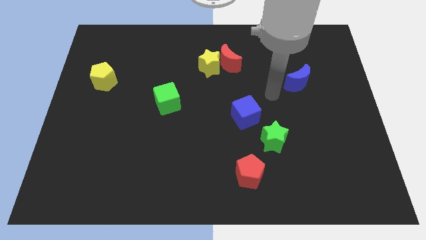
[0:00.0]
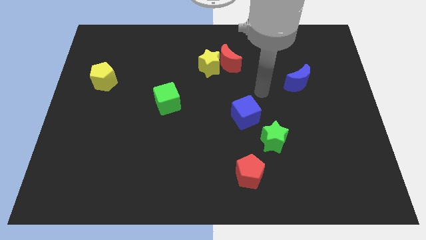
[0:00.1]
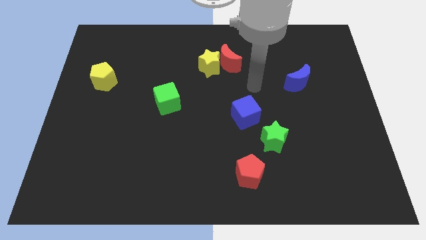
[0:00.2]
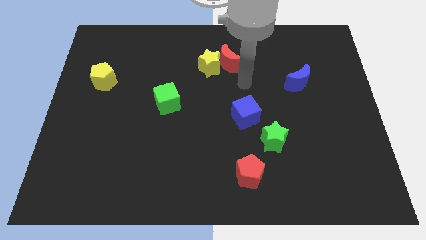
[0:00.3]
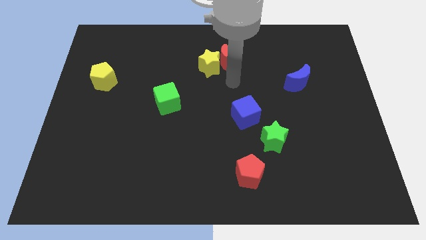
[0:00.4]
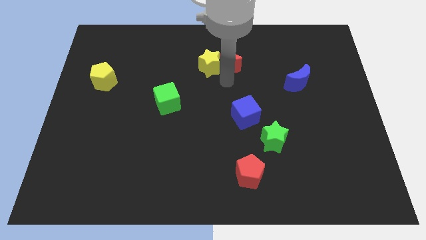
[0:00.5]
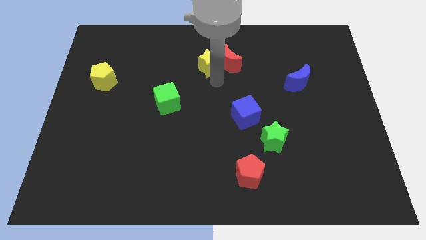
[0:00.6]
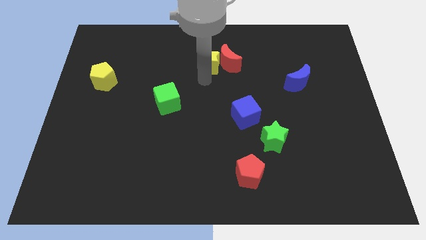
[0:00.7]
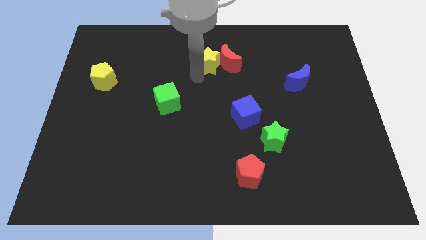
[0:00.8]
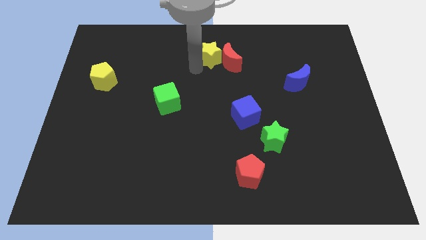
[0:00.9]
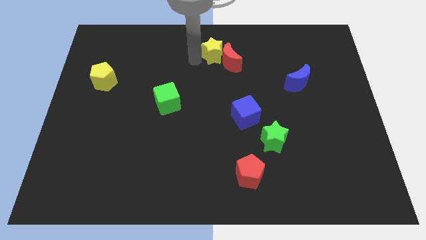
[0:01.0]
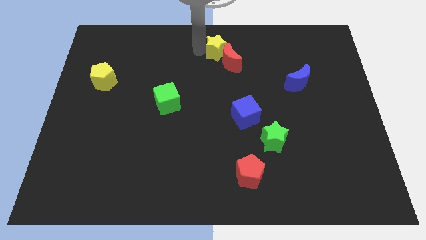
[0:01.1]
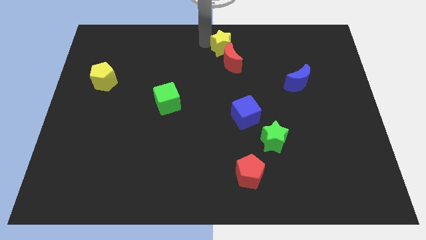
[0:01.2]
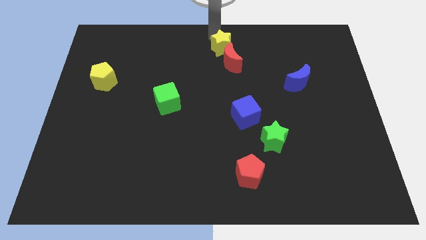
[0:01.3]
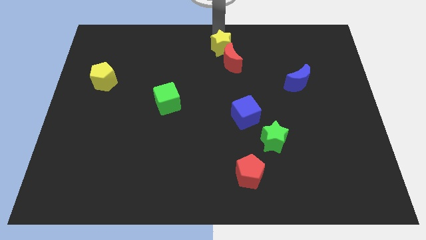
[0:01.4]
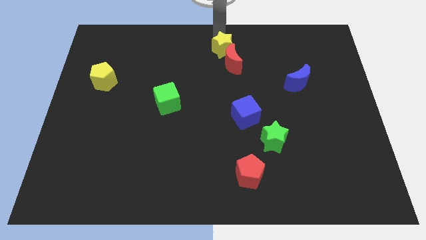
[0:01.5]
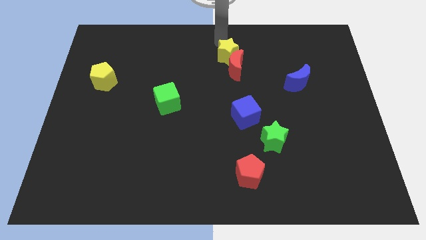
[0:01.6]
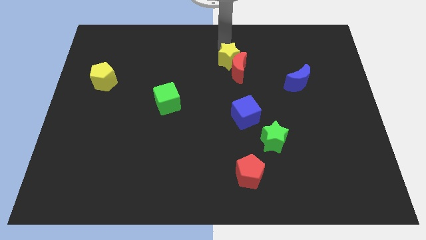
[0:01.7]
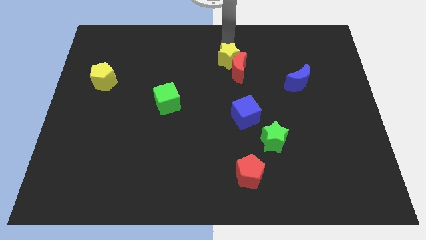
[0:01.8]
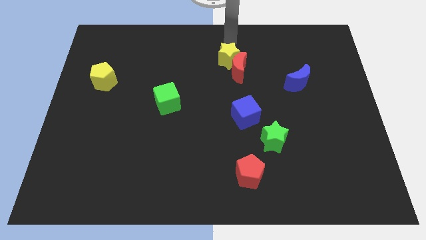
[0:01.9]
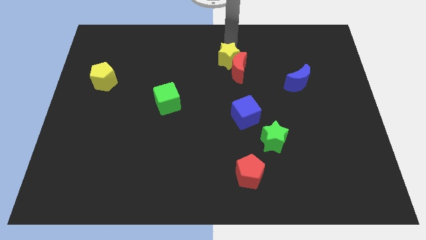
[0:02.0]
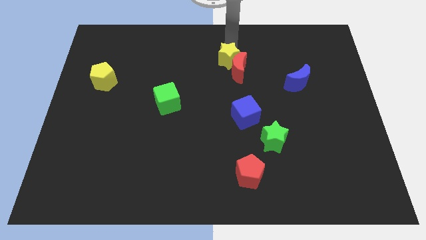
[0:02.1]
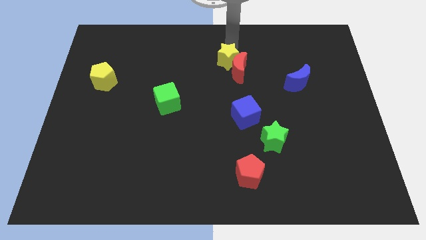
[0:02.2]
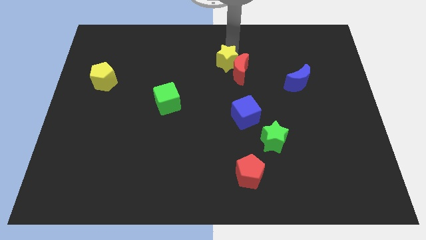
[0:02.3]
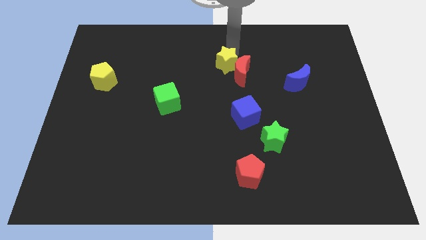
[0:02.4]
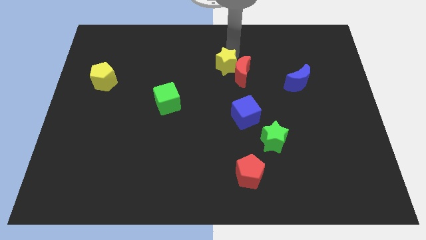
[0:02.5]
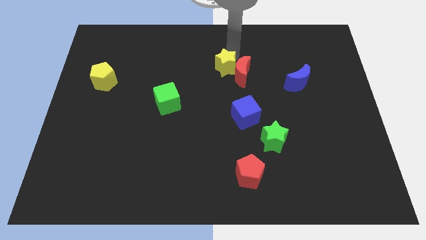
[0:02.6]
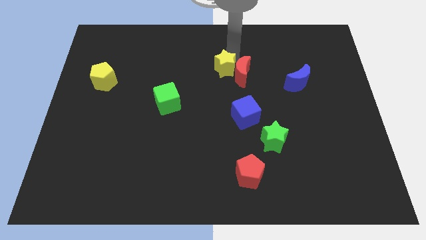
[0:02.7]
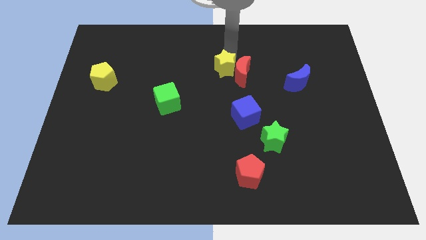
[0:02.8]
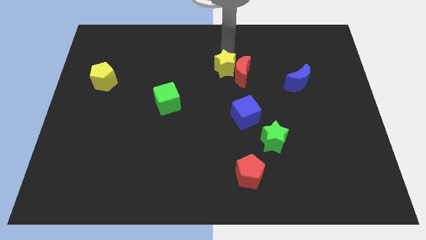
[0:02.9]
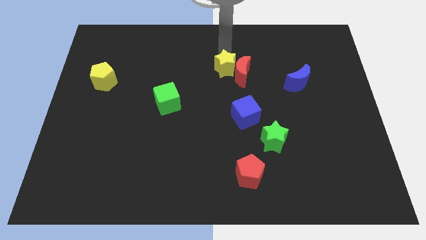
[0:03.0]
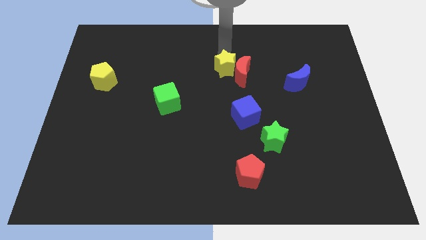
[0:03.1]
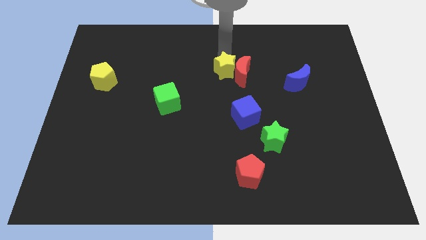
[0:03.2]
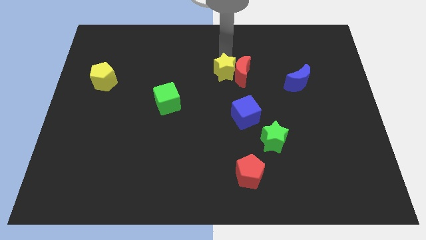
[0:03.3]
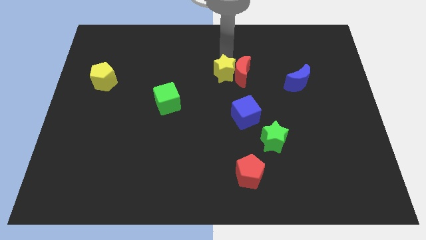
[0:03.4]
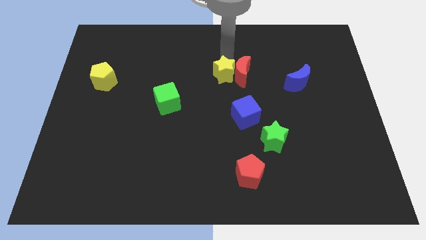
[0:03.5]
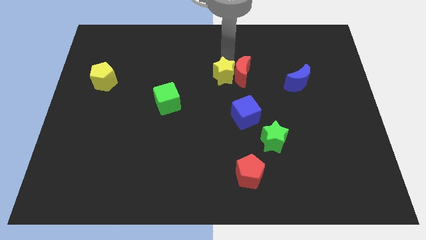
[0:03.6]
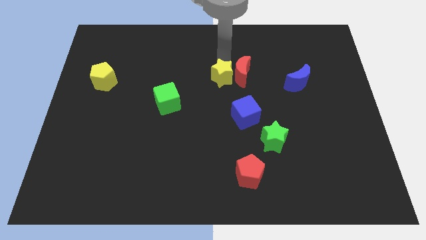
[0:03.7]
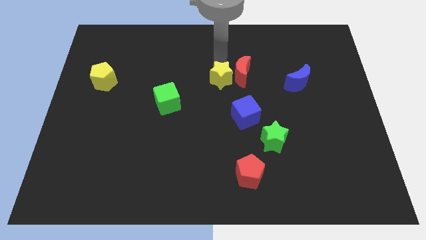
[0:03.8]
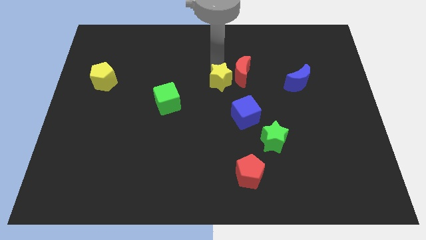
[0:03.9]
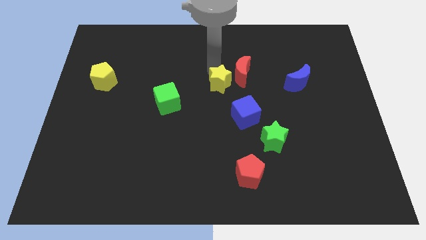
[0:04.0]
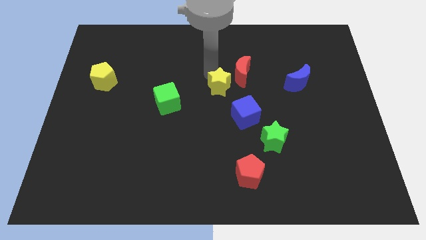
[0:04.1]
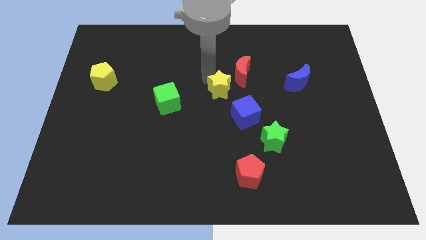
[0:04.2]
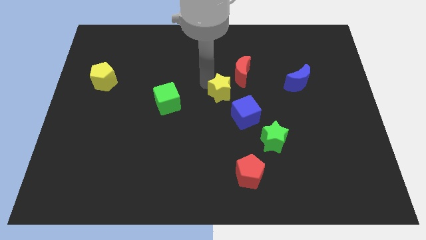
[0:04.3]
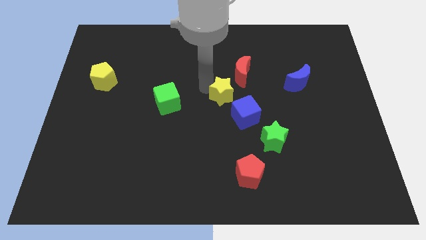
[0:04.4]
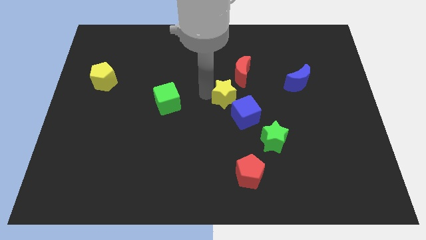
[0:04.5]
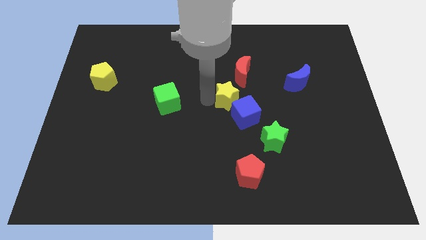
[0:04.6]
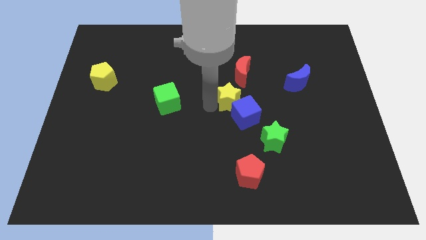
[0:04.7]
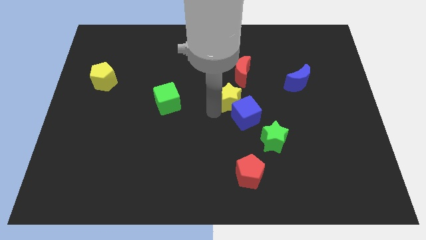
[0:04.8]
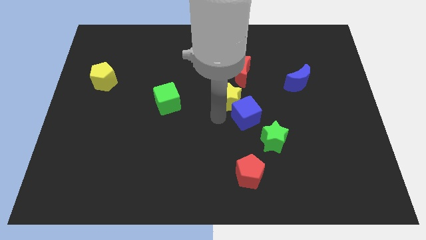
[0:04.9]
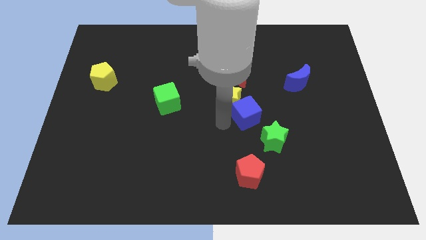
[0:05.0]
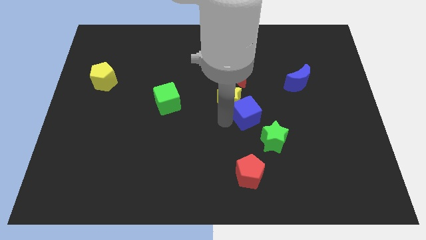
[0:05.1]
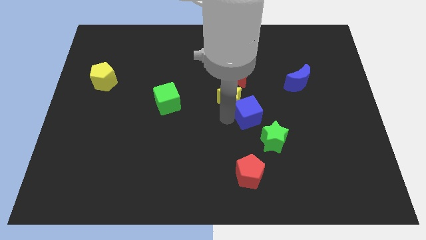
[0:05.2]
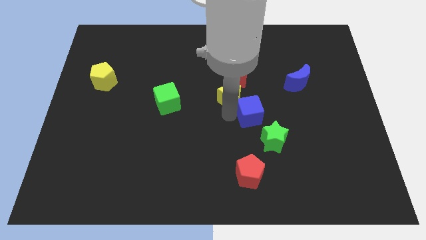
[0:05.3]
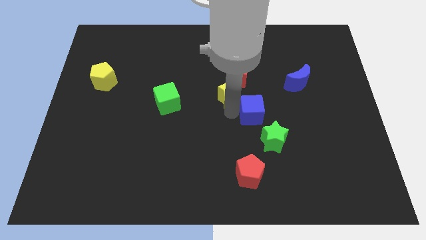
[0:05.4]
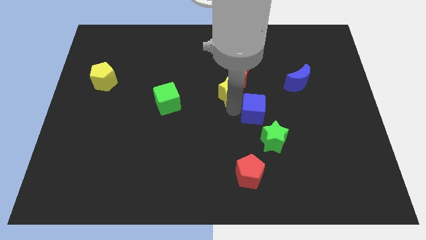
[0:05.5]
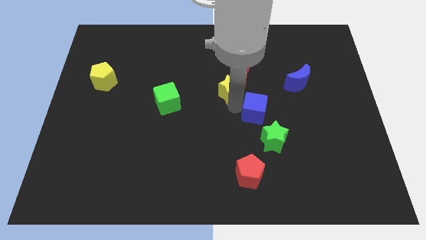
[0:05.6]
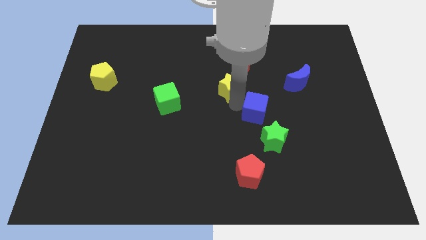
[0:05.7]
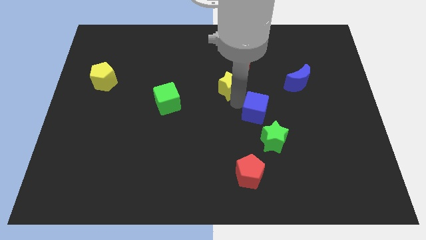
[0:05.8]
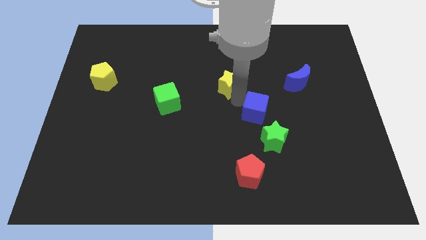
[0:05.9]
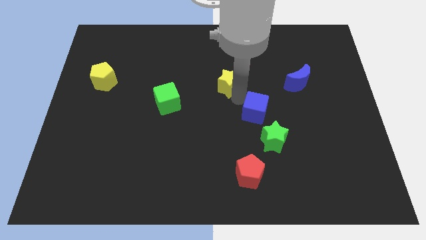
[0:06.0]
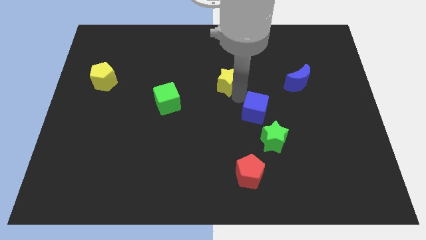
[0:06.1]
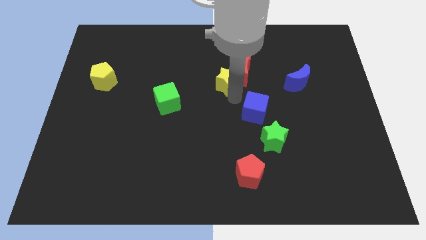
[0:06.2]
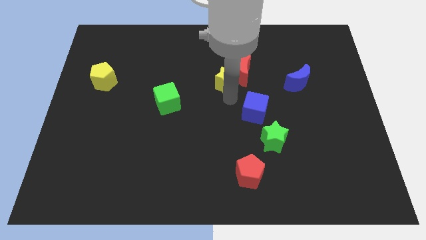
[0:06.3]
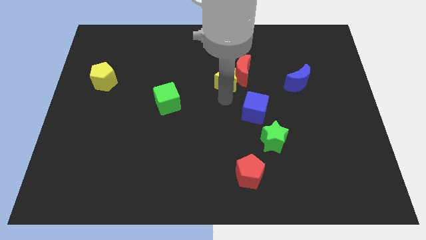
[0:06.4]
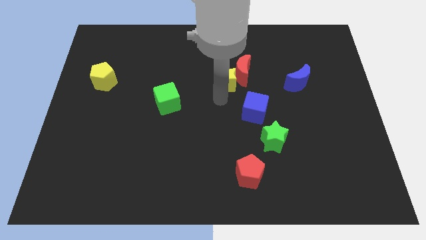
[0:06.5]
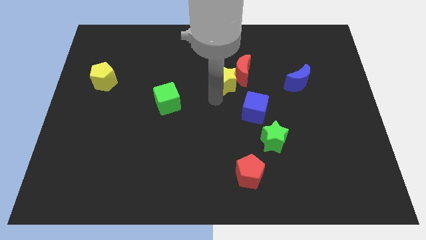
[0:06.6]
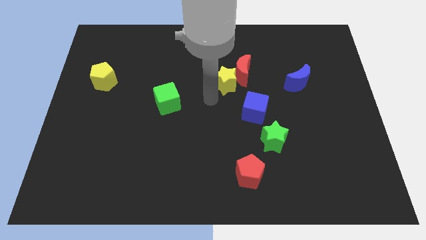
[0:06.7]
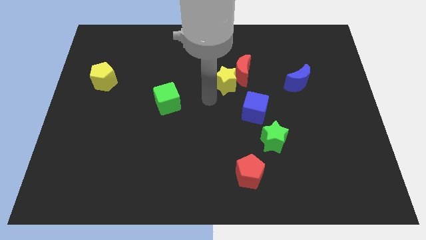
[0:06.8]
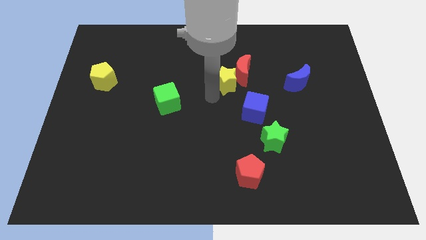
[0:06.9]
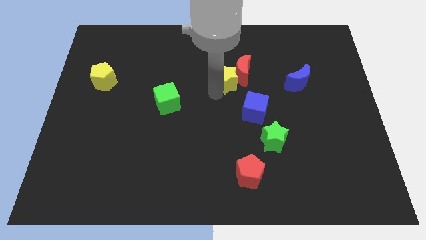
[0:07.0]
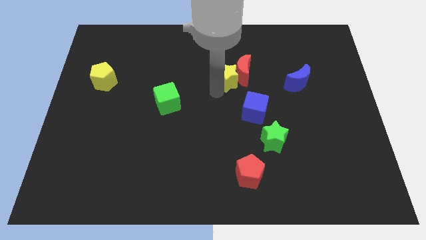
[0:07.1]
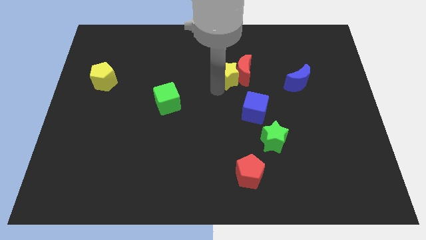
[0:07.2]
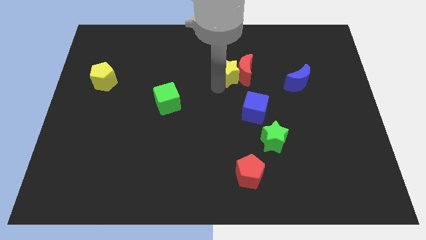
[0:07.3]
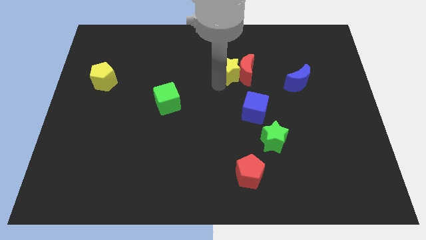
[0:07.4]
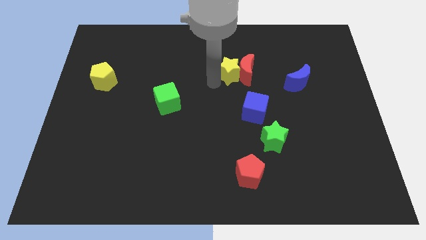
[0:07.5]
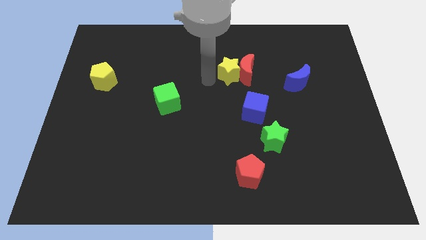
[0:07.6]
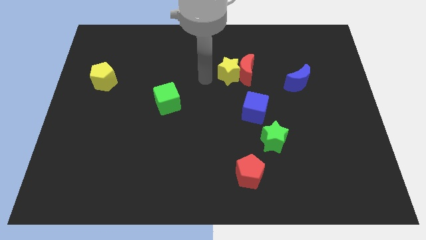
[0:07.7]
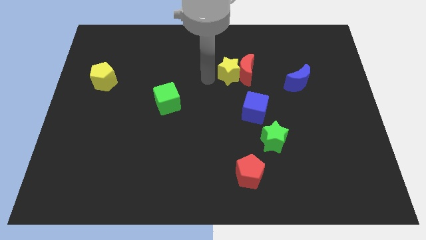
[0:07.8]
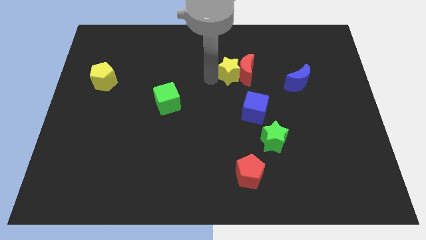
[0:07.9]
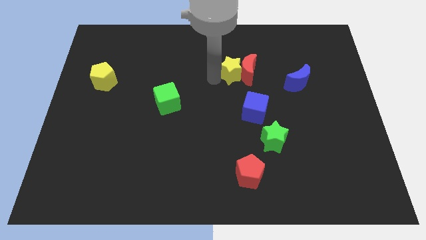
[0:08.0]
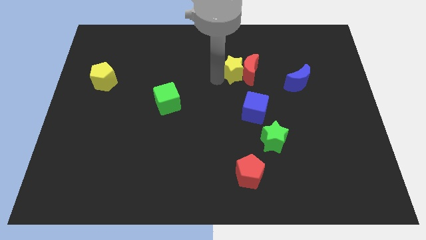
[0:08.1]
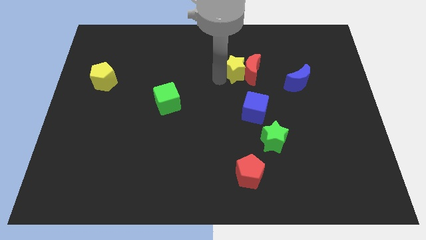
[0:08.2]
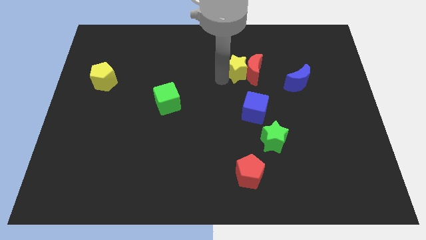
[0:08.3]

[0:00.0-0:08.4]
slightly push the yellow star to the right
